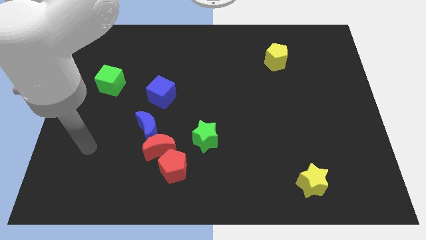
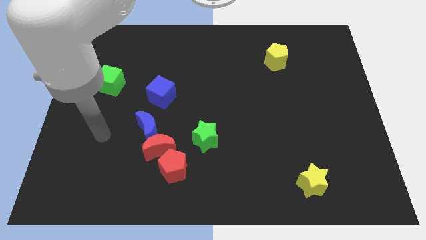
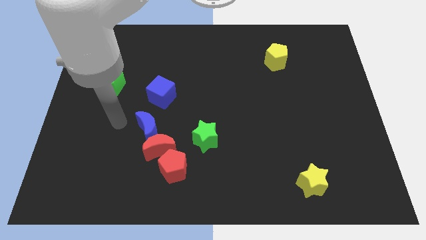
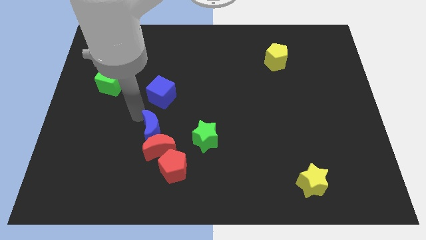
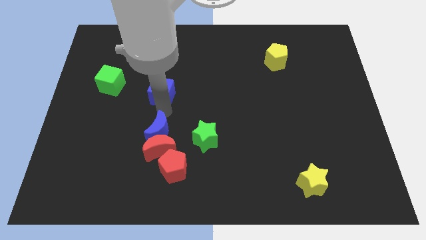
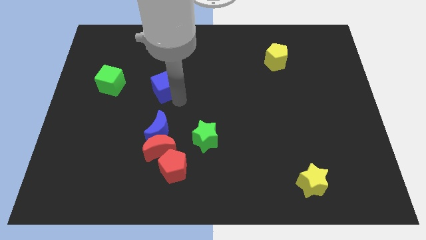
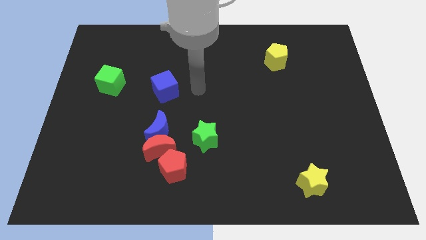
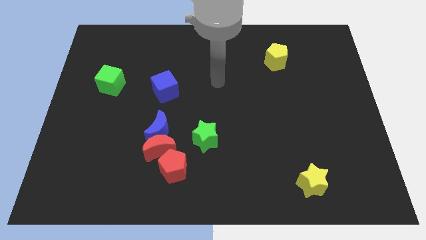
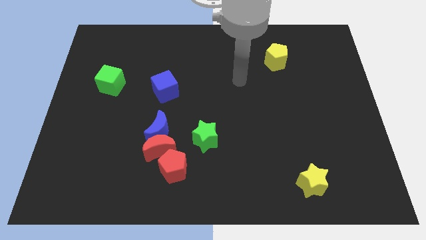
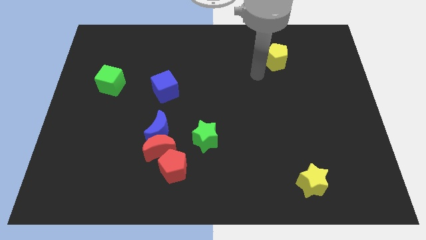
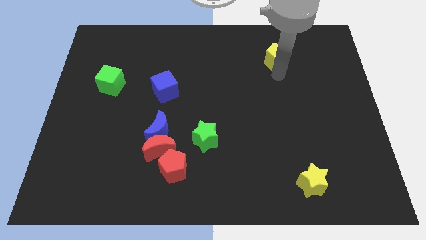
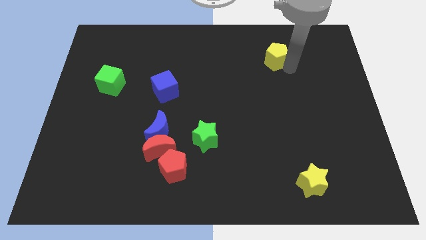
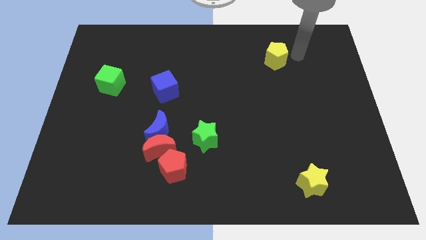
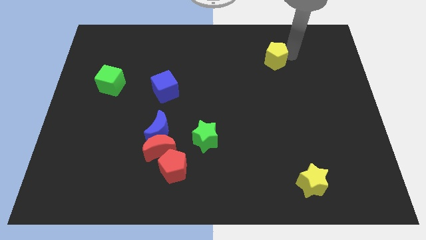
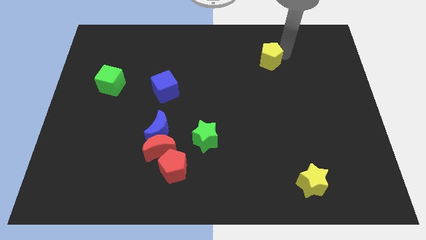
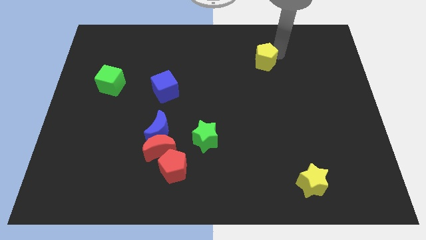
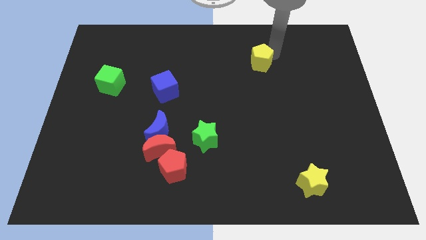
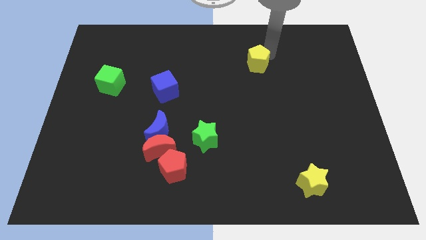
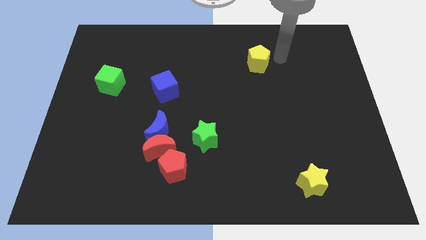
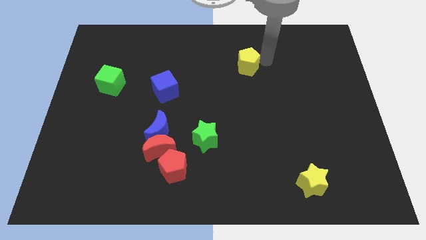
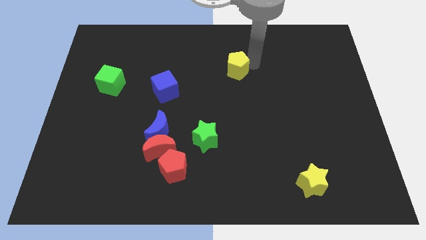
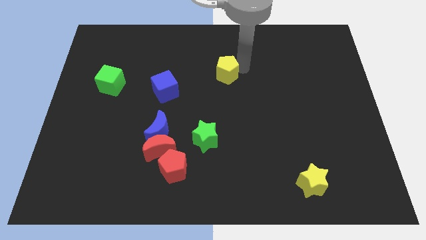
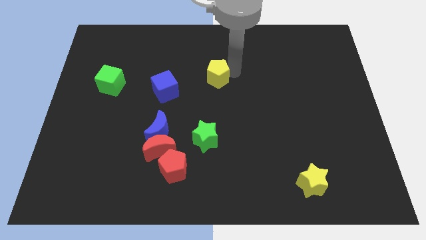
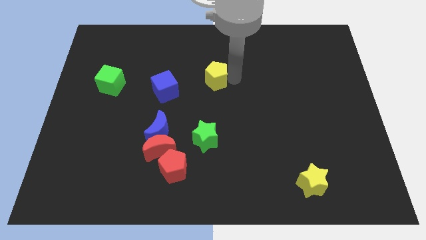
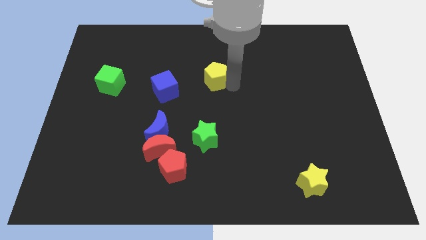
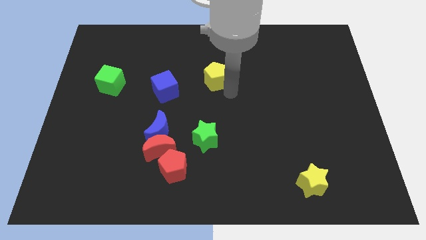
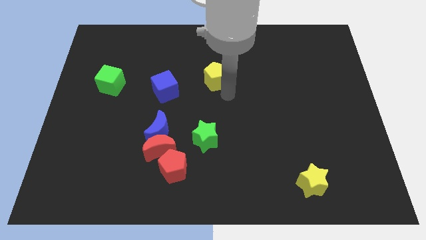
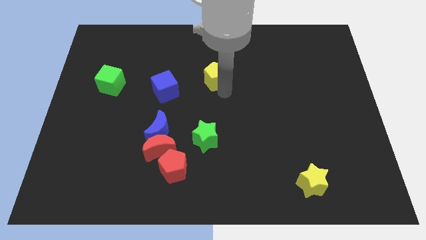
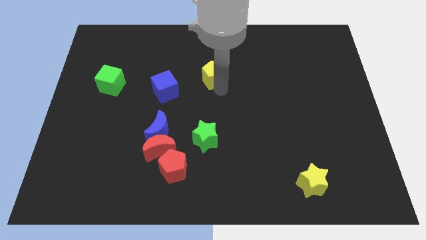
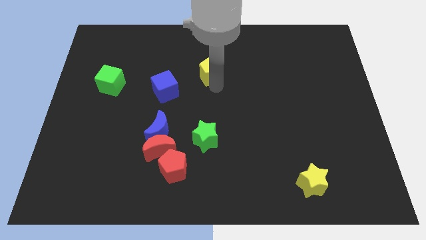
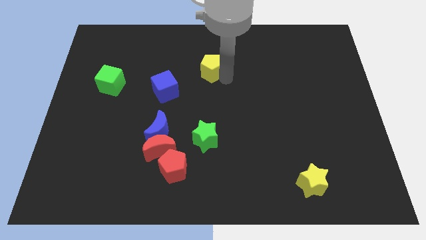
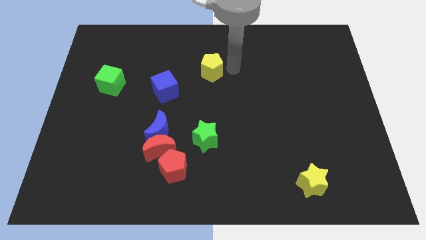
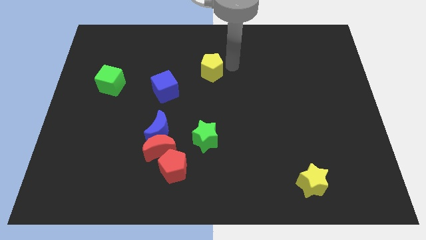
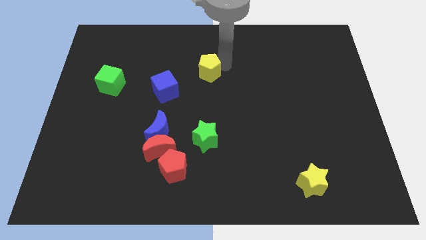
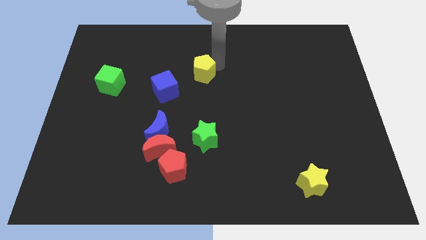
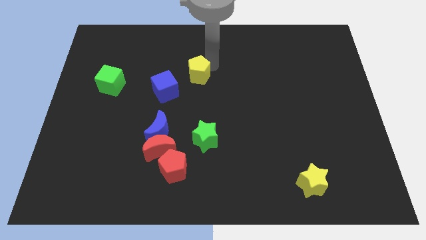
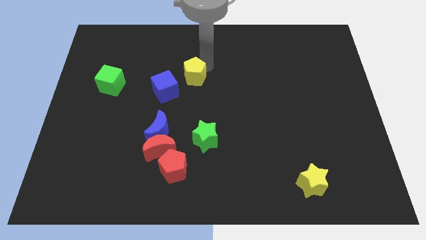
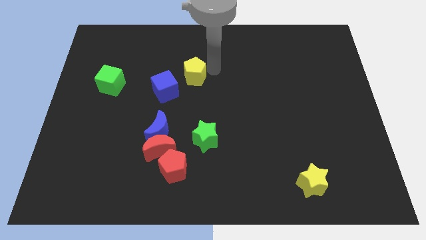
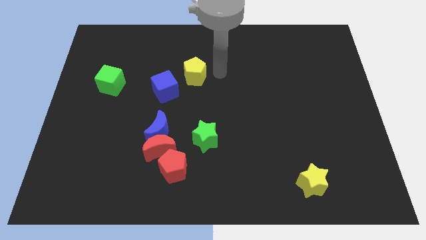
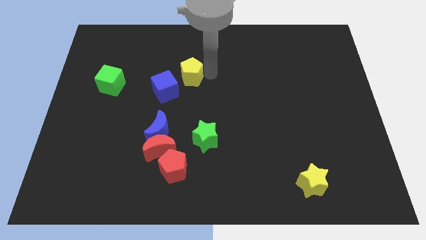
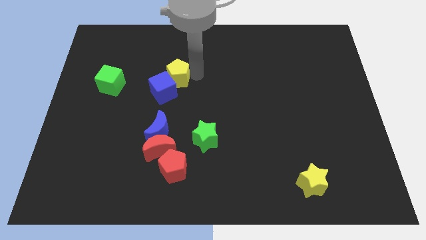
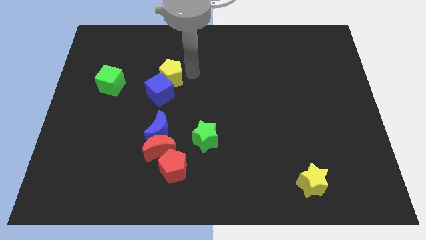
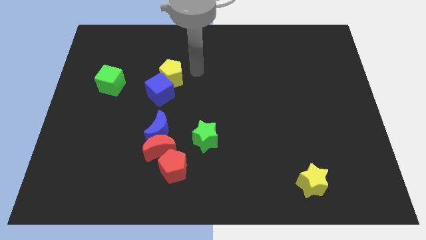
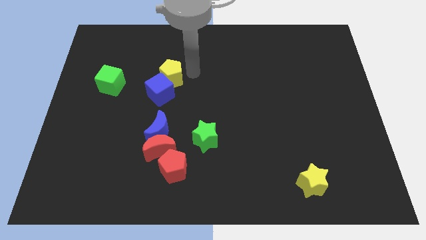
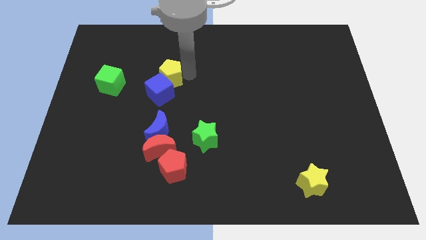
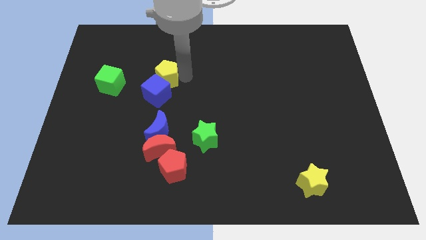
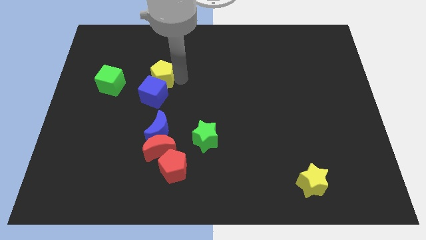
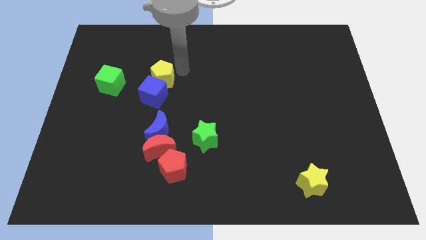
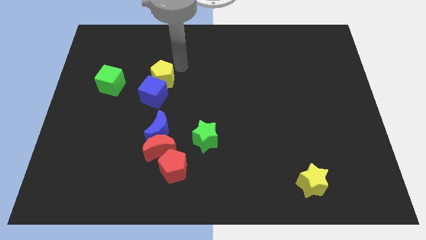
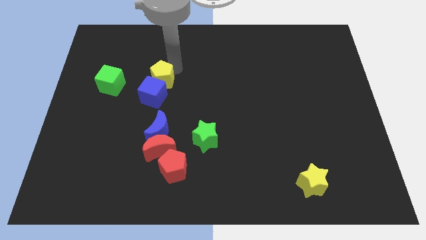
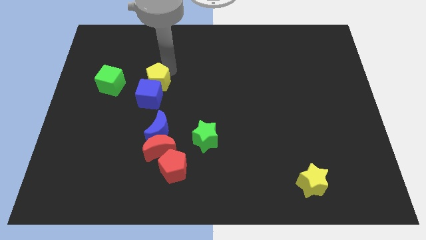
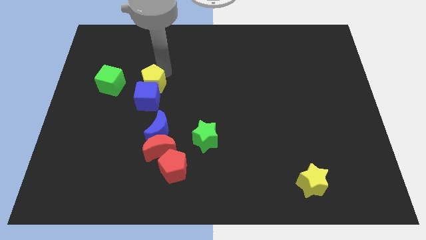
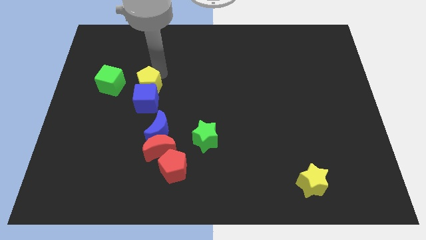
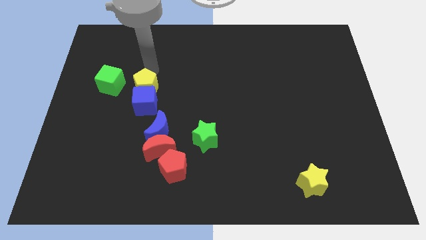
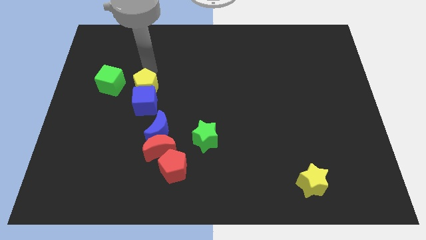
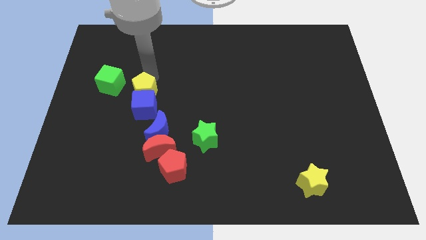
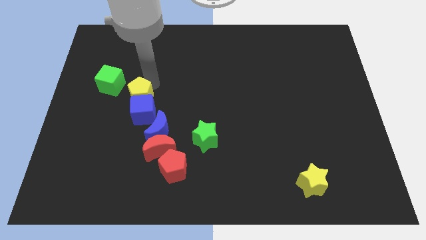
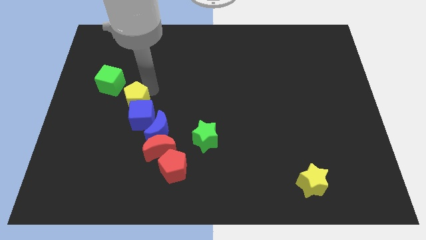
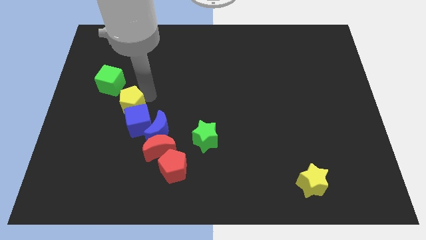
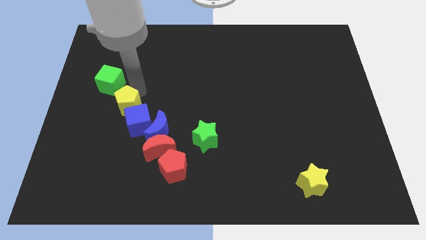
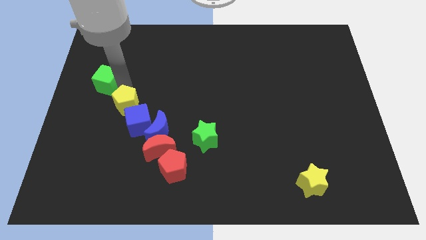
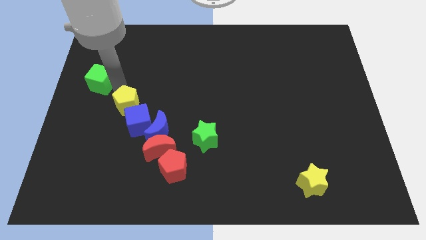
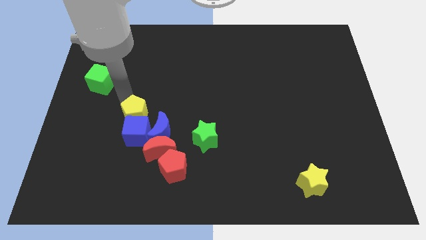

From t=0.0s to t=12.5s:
slide the yellow pentagon to the top left side of the red moon

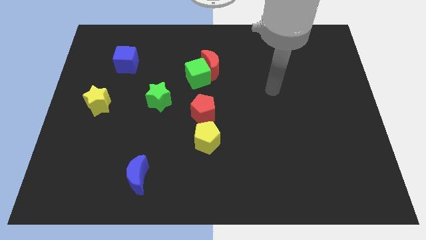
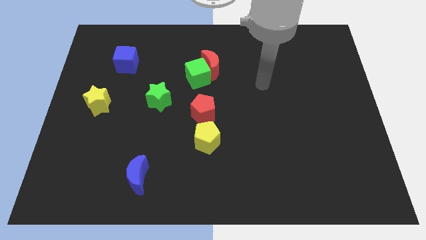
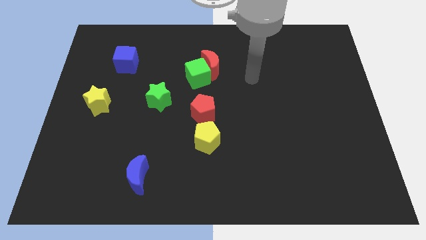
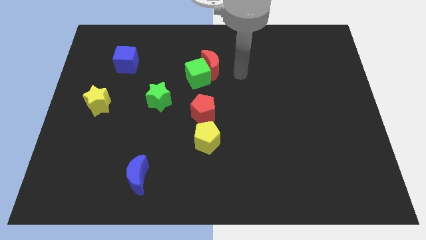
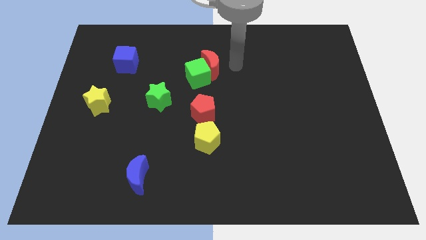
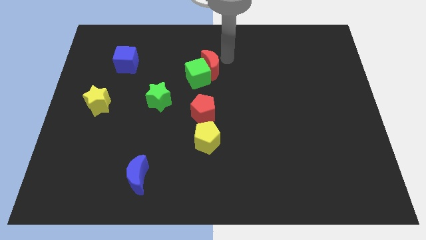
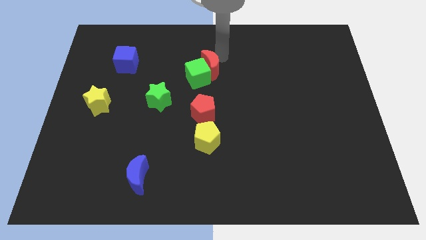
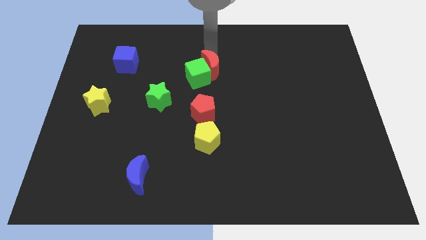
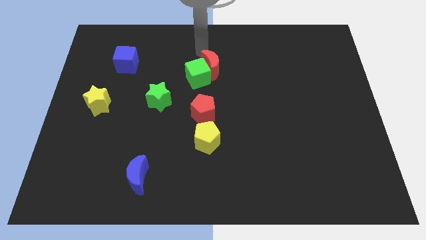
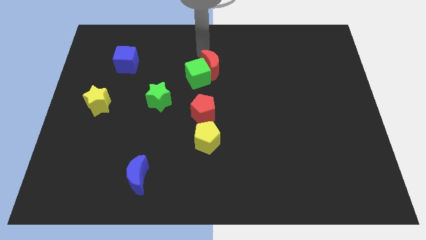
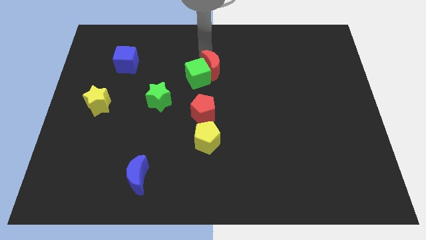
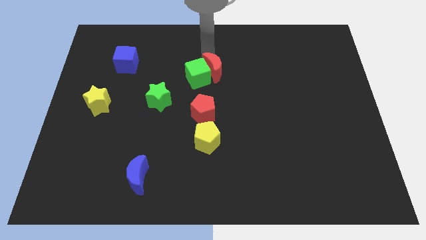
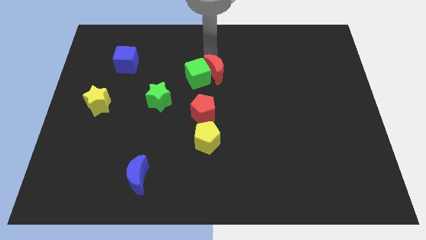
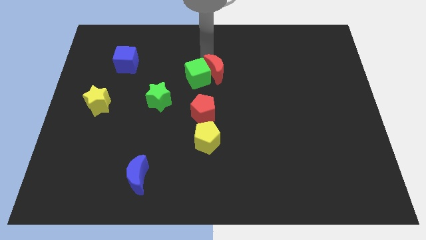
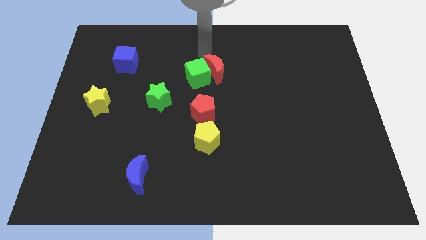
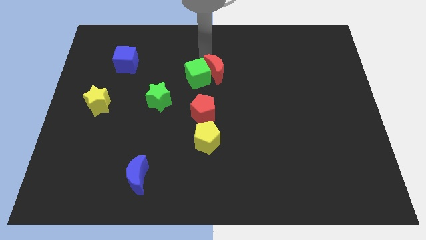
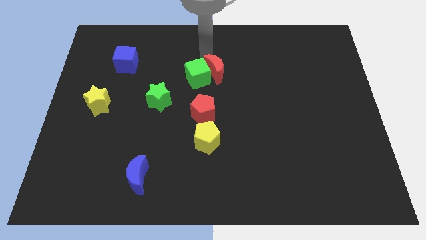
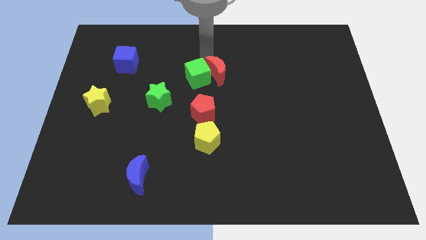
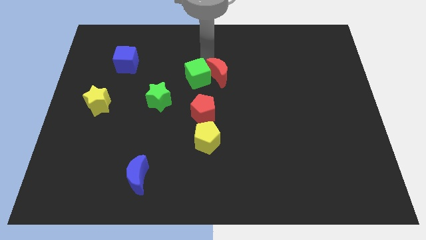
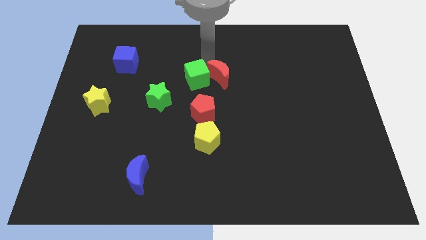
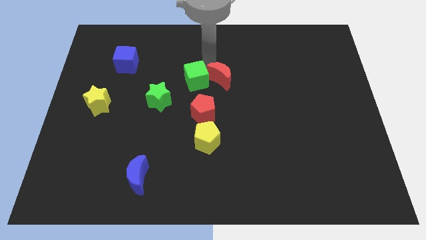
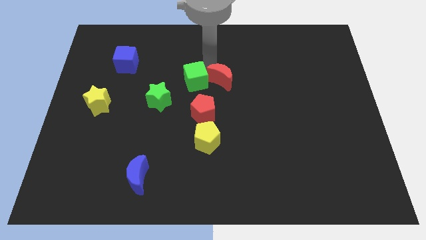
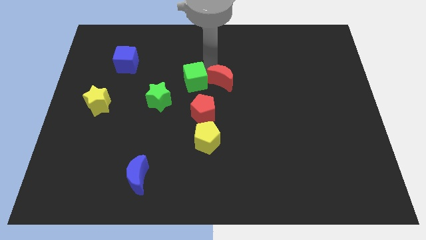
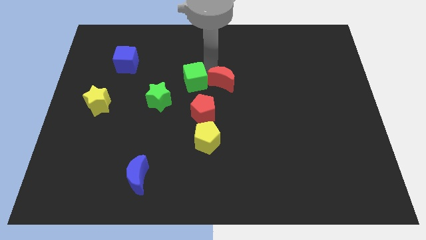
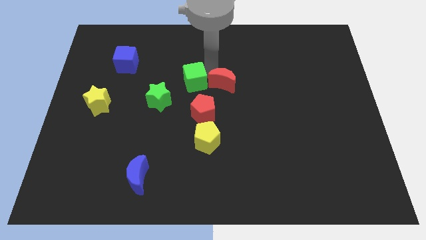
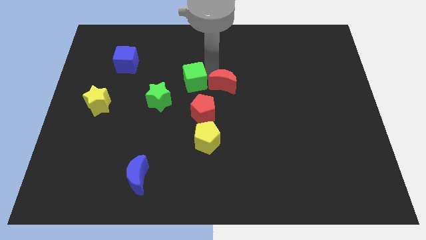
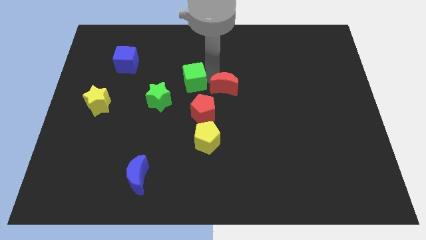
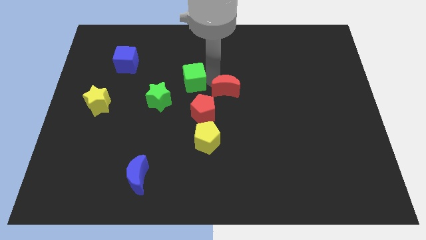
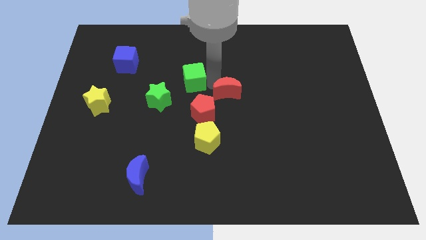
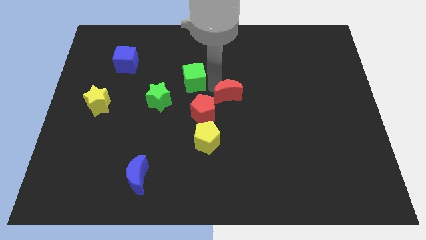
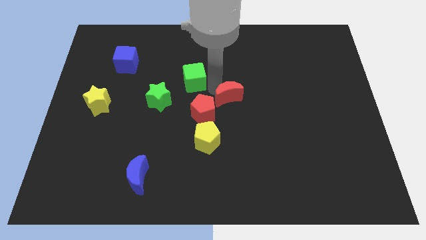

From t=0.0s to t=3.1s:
push the red moon just right of the red pentagon
